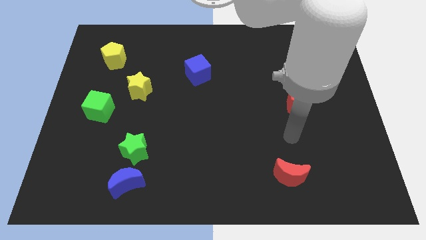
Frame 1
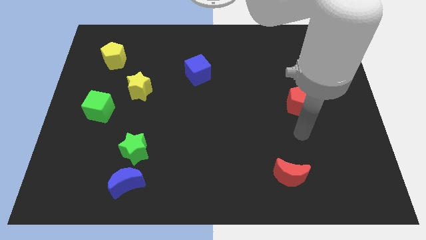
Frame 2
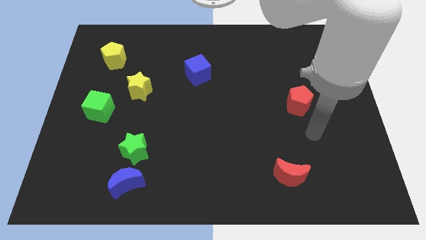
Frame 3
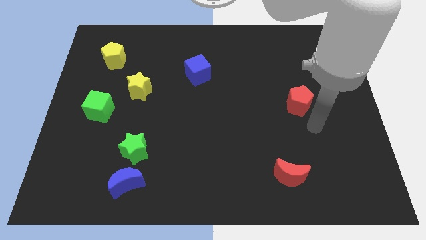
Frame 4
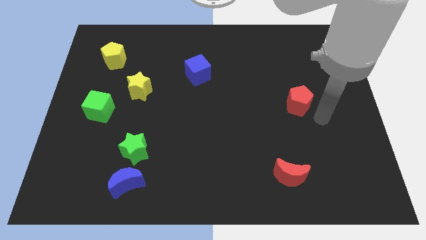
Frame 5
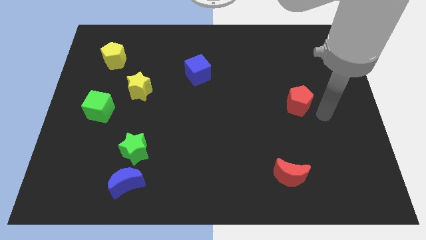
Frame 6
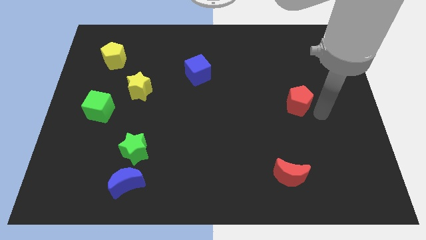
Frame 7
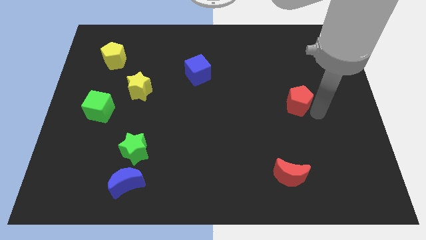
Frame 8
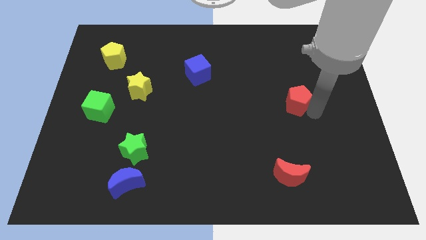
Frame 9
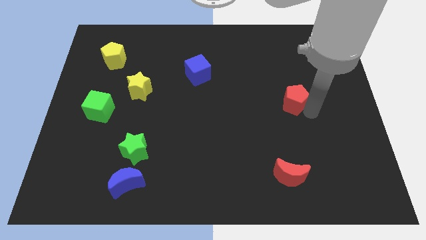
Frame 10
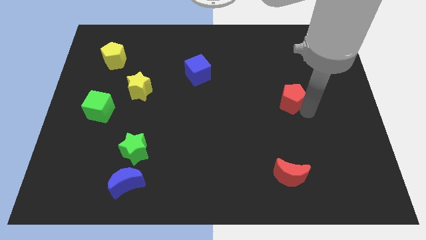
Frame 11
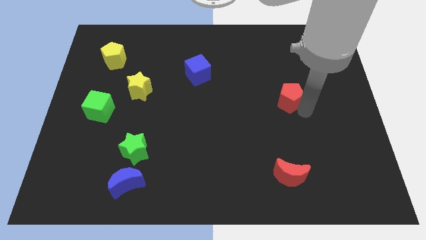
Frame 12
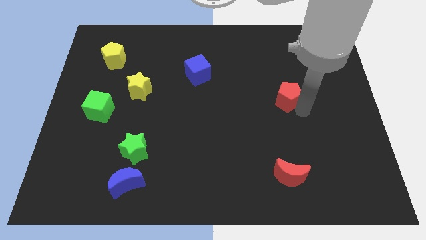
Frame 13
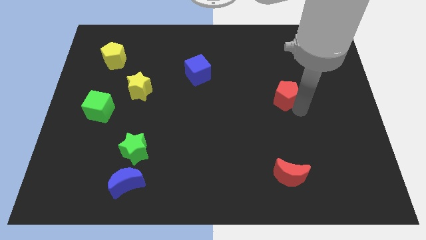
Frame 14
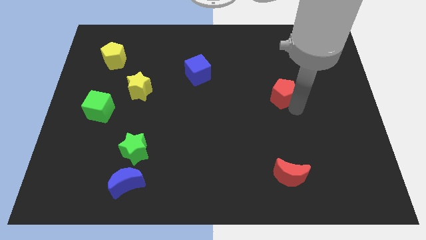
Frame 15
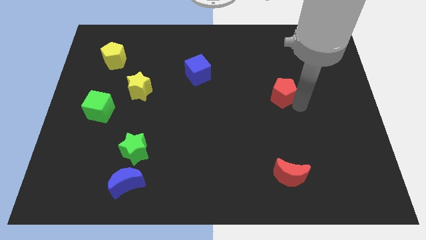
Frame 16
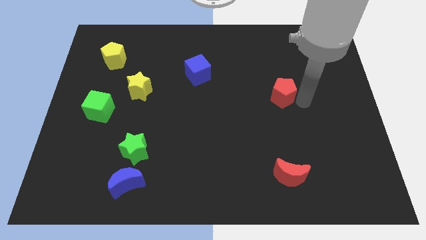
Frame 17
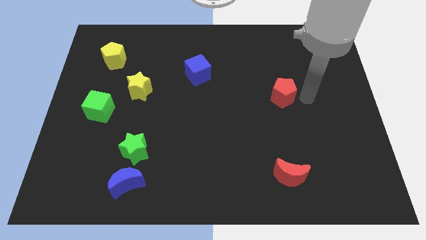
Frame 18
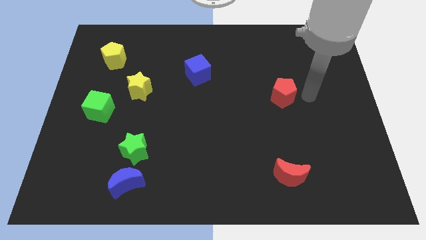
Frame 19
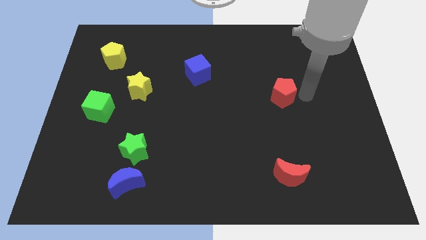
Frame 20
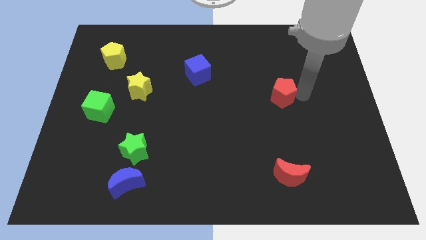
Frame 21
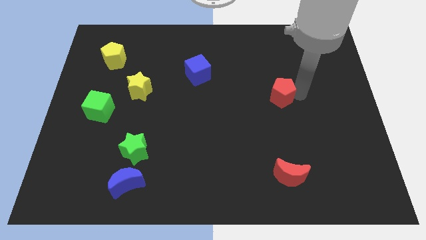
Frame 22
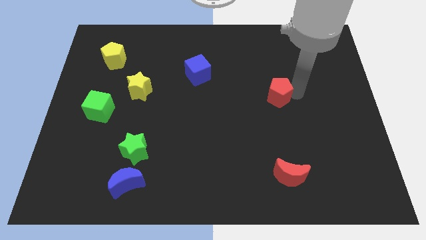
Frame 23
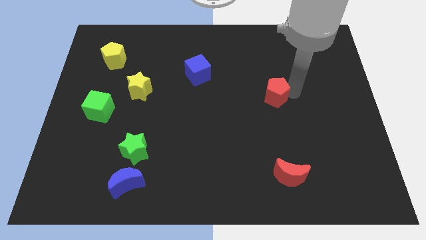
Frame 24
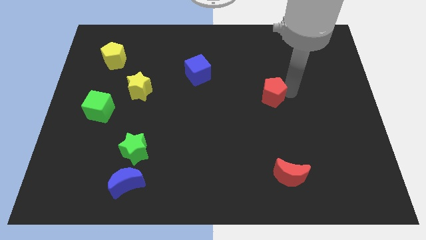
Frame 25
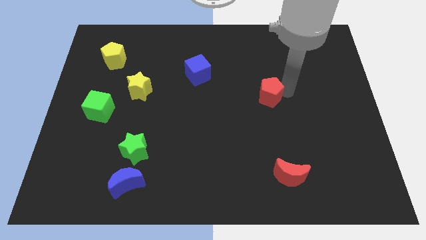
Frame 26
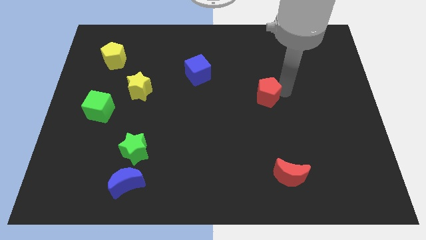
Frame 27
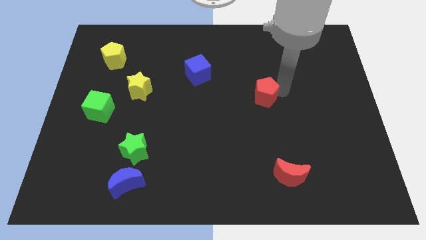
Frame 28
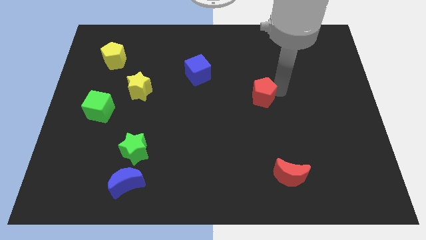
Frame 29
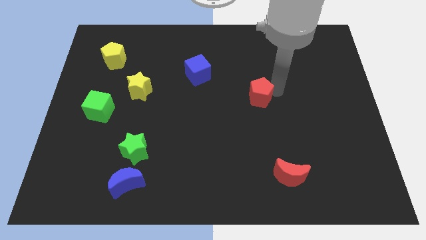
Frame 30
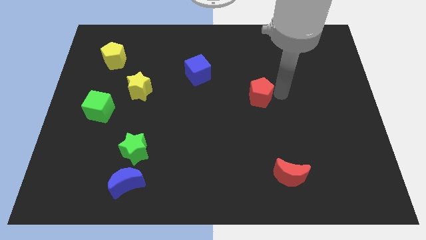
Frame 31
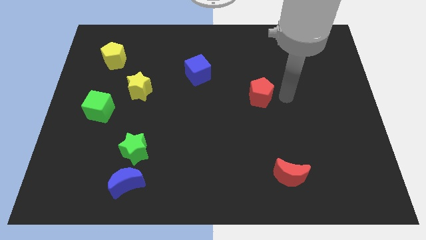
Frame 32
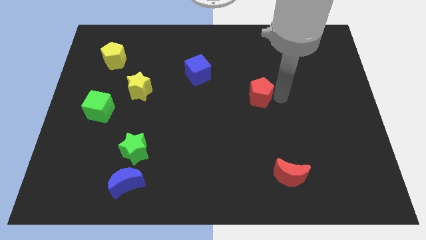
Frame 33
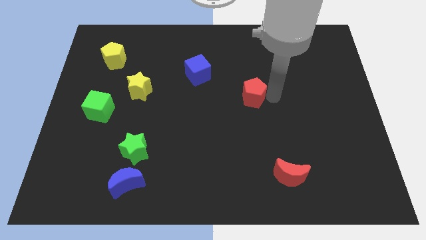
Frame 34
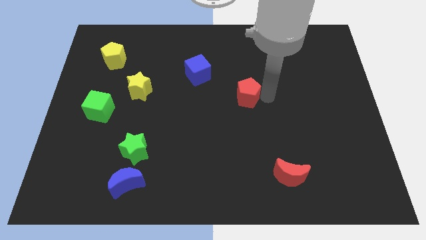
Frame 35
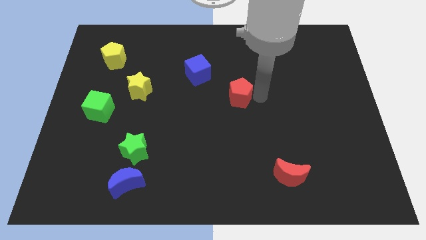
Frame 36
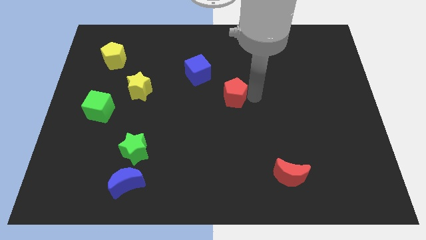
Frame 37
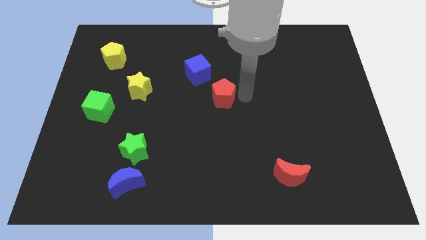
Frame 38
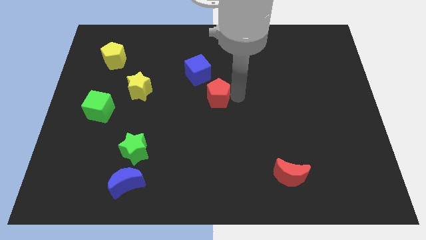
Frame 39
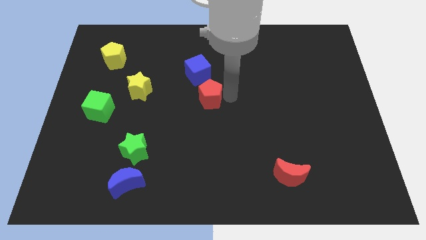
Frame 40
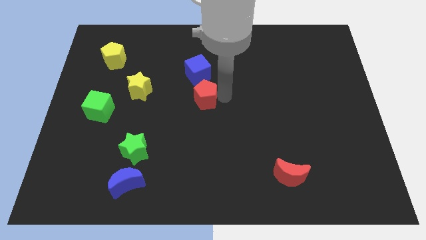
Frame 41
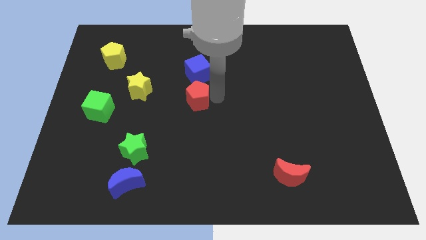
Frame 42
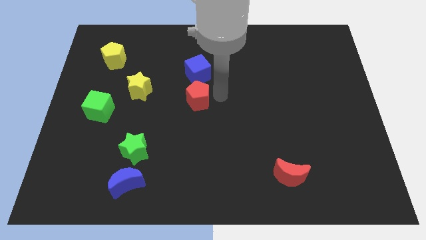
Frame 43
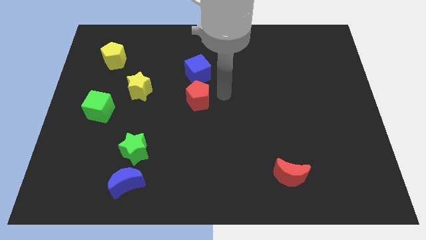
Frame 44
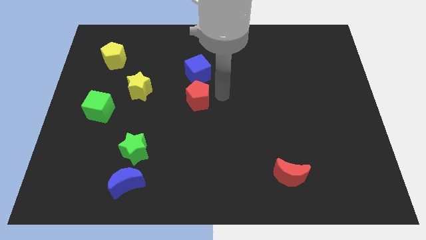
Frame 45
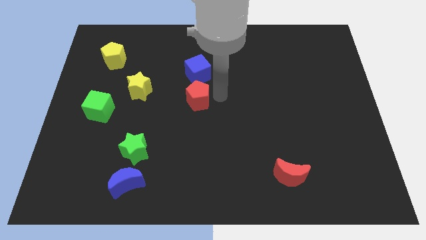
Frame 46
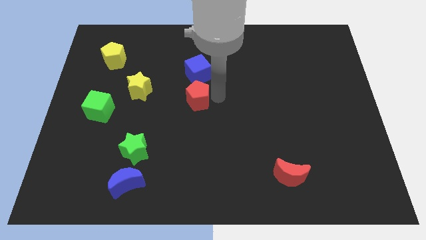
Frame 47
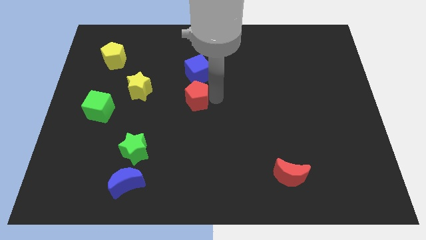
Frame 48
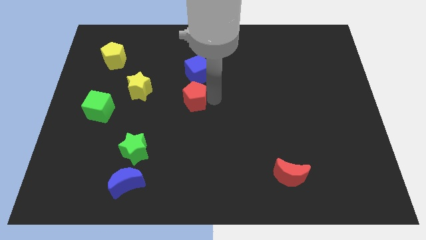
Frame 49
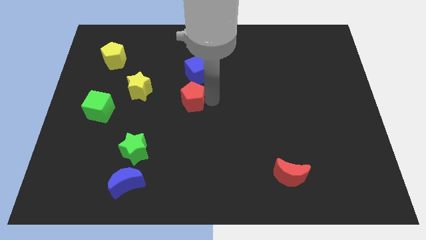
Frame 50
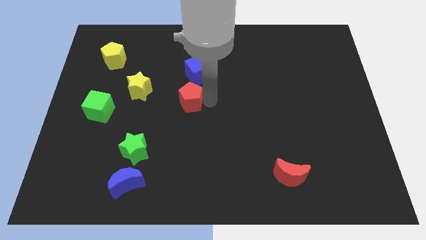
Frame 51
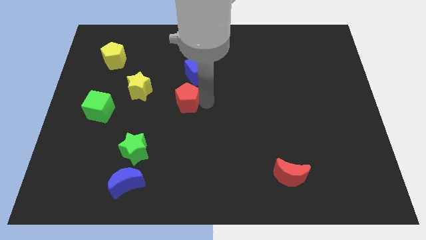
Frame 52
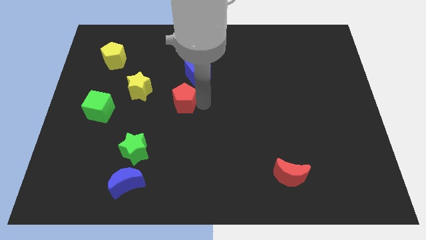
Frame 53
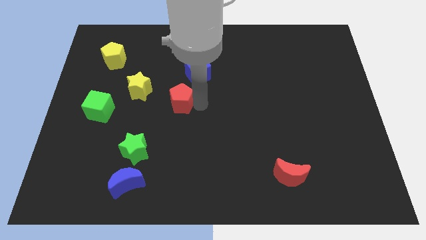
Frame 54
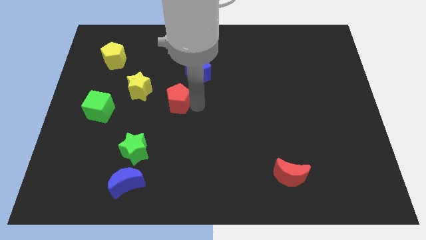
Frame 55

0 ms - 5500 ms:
slide the red pentagon to the bottom right side of the yellow star

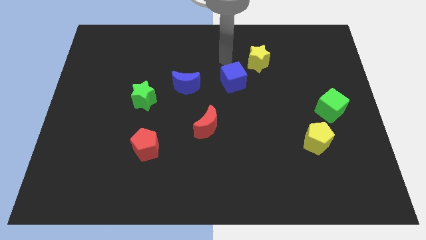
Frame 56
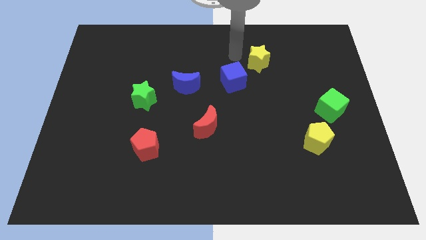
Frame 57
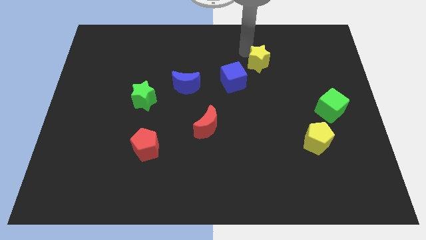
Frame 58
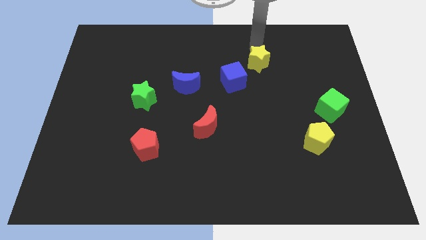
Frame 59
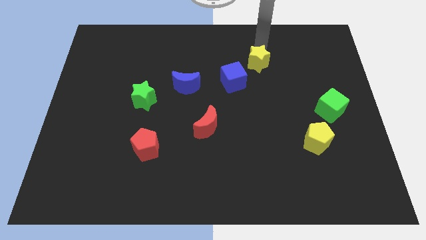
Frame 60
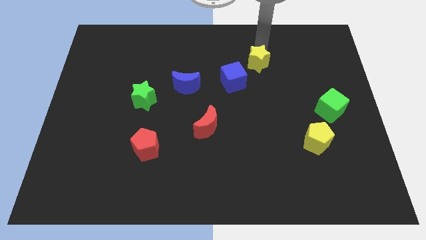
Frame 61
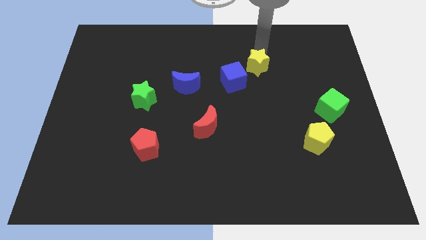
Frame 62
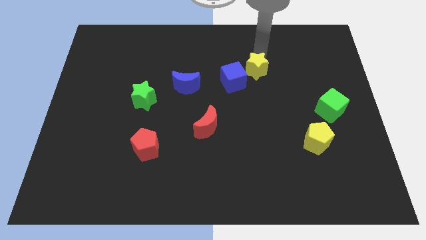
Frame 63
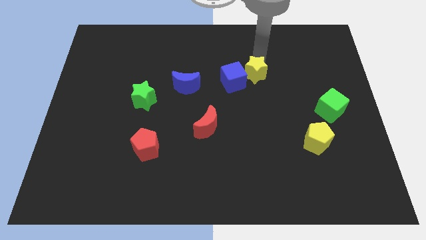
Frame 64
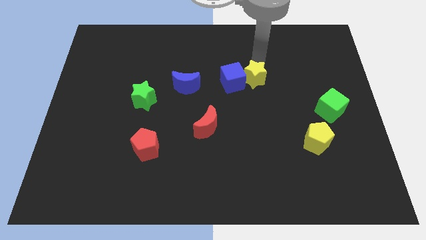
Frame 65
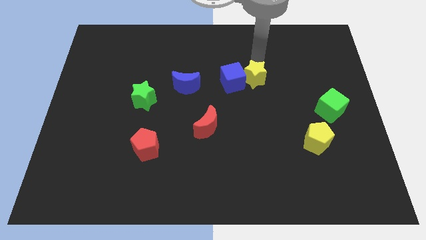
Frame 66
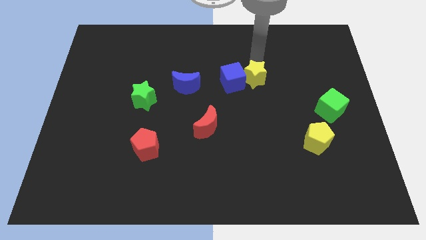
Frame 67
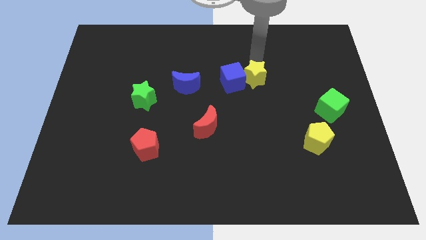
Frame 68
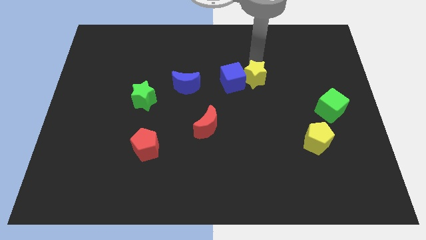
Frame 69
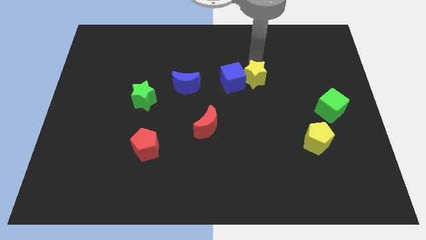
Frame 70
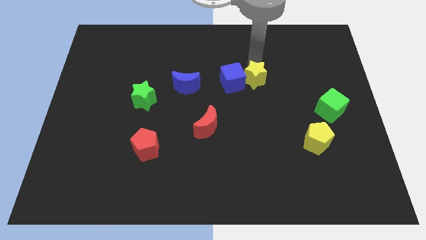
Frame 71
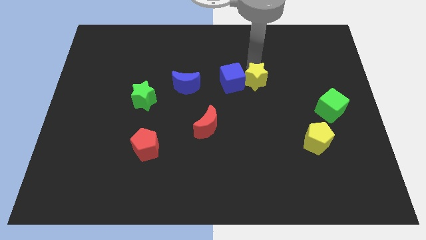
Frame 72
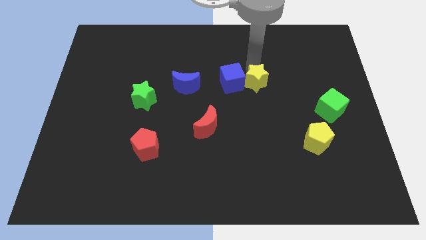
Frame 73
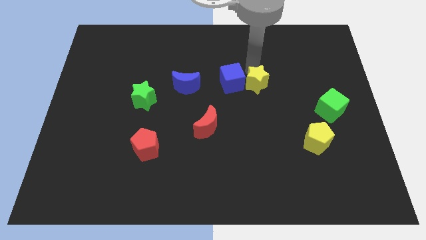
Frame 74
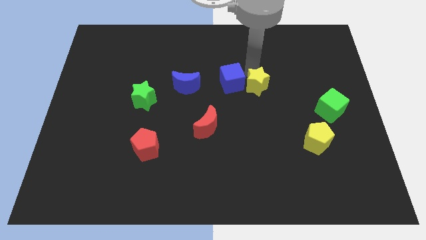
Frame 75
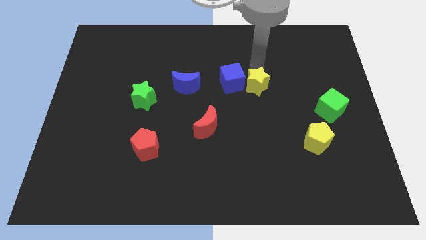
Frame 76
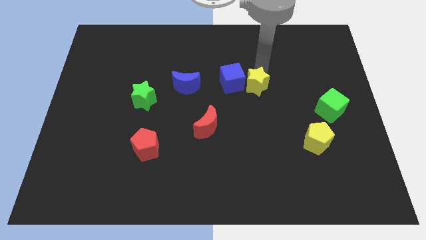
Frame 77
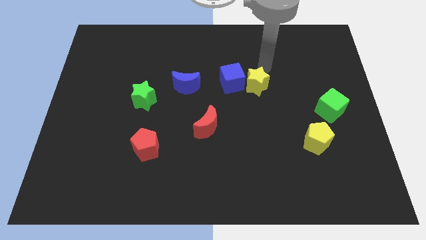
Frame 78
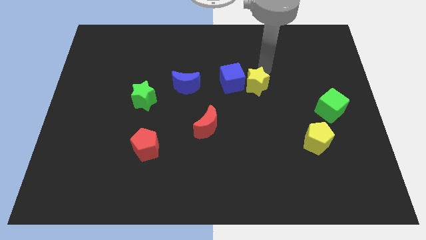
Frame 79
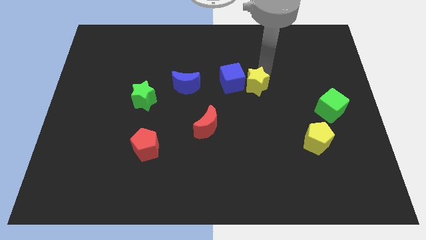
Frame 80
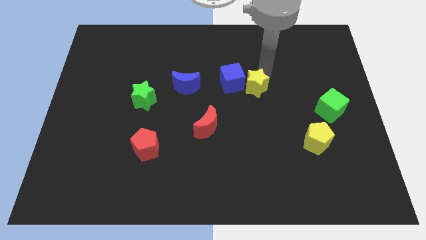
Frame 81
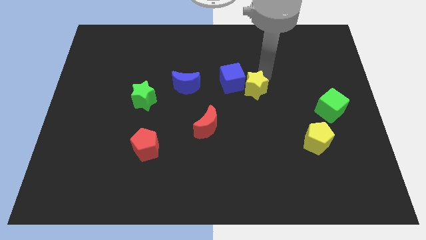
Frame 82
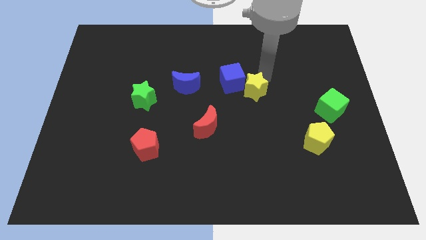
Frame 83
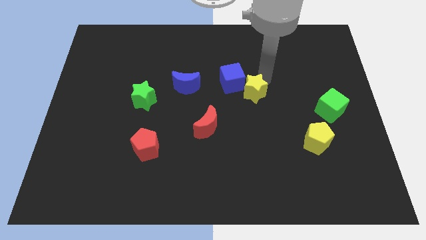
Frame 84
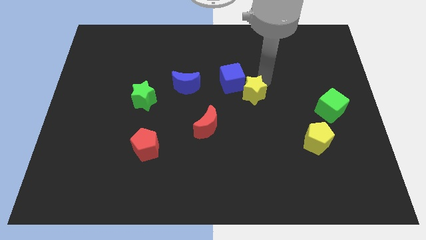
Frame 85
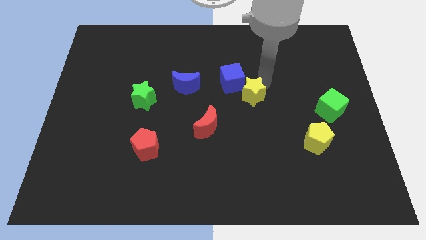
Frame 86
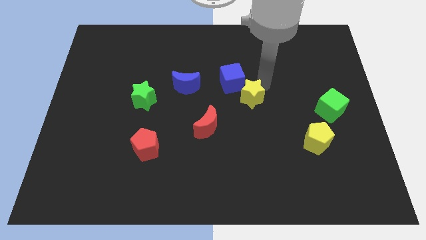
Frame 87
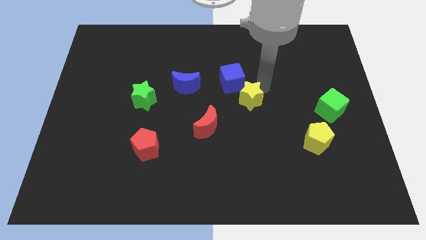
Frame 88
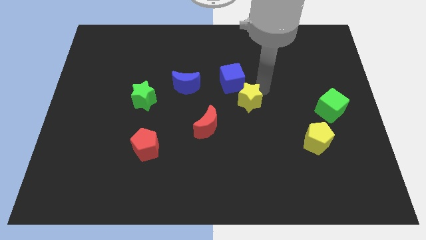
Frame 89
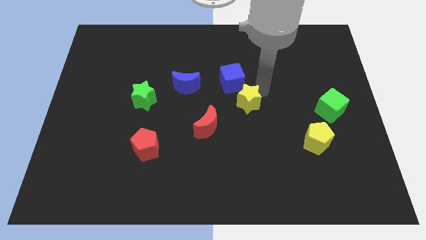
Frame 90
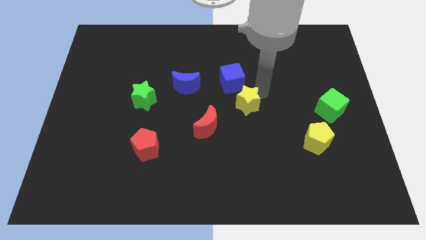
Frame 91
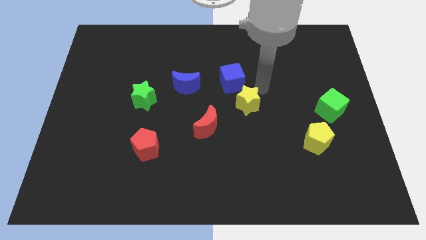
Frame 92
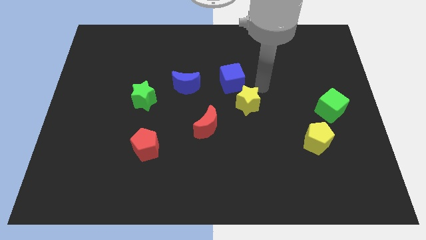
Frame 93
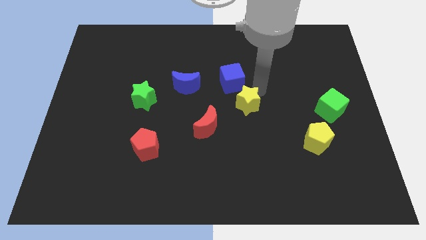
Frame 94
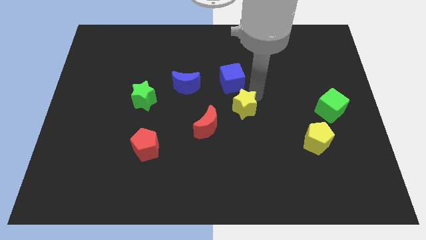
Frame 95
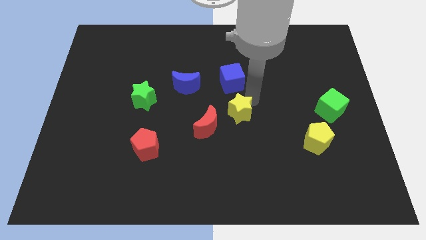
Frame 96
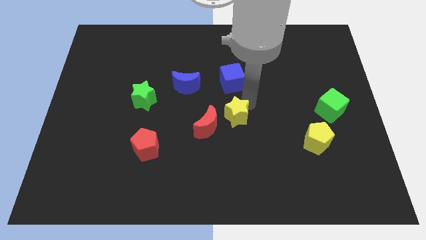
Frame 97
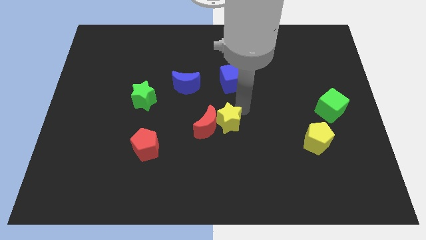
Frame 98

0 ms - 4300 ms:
slide the yellow star to the bottom right of the red moon
